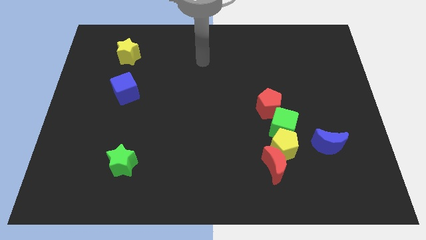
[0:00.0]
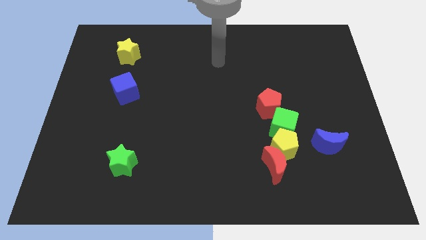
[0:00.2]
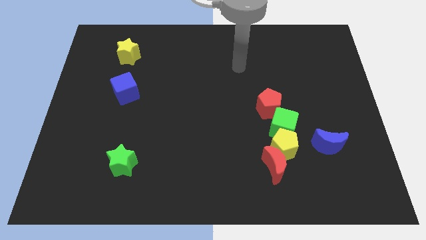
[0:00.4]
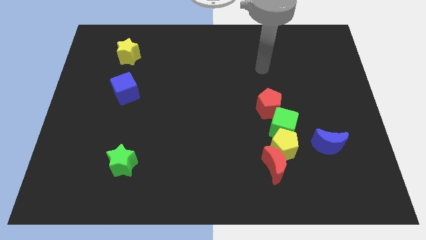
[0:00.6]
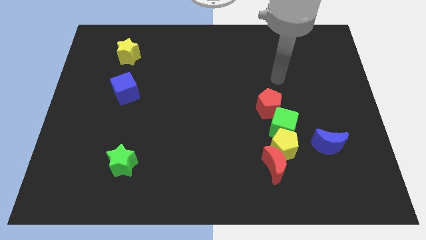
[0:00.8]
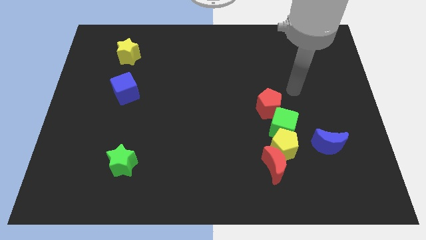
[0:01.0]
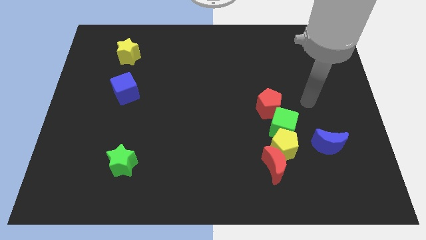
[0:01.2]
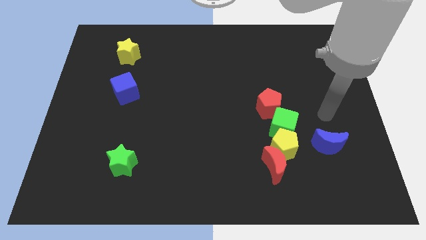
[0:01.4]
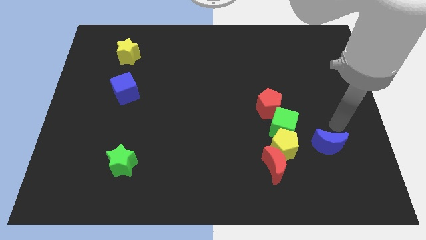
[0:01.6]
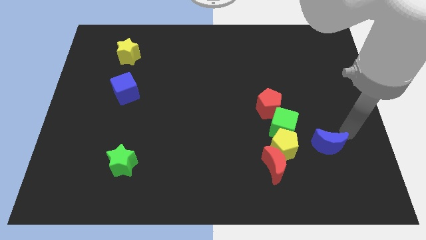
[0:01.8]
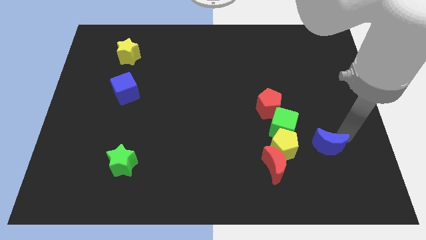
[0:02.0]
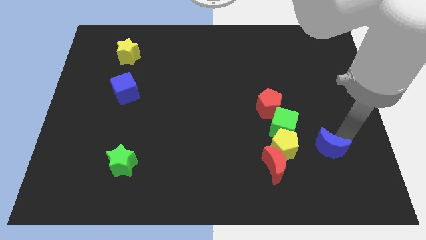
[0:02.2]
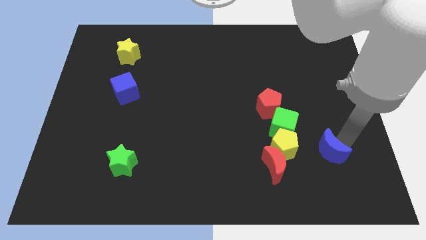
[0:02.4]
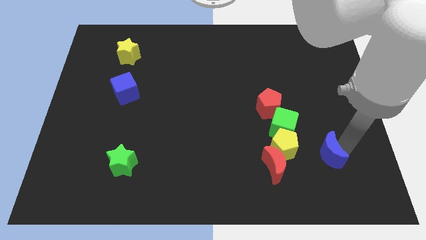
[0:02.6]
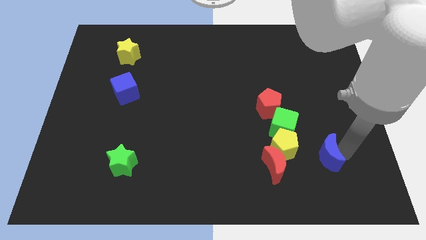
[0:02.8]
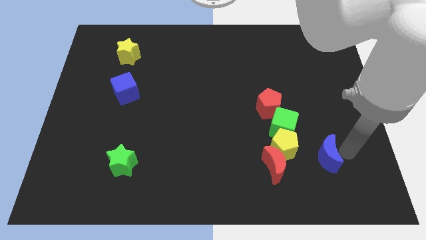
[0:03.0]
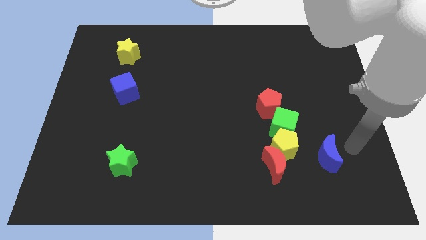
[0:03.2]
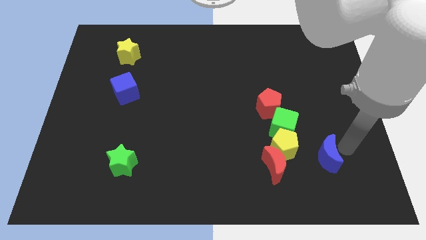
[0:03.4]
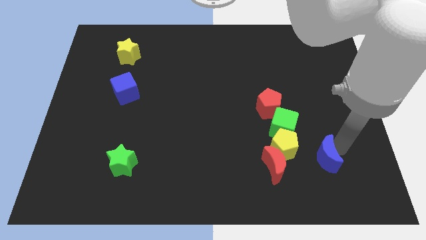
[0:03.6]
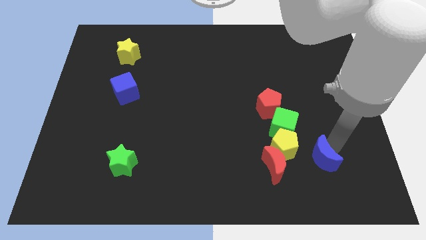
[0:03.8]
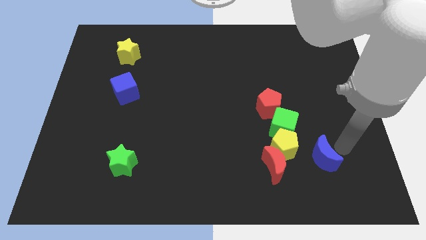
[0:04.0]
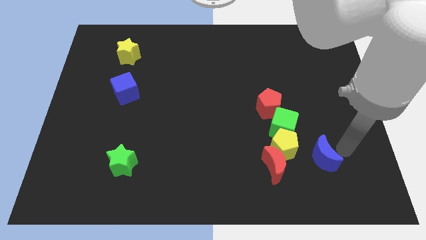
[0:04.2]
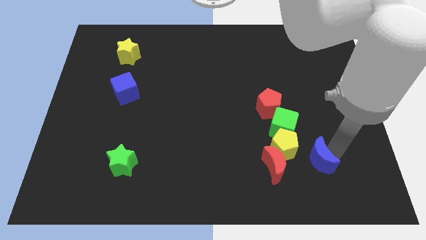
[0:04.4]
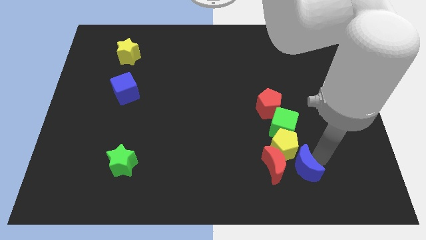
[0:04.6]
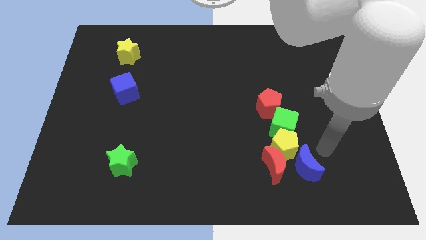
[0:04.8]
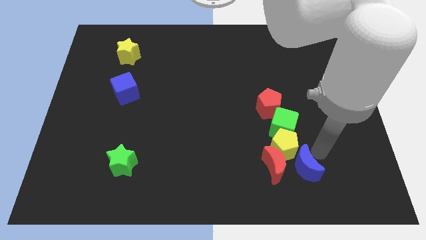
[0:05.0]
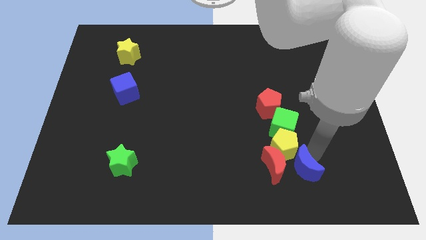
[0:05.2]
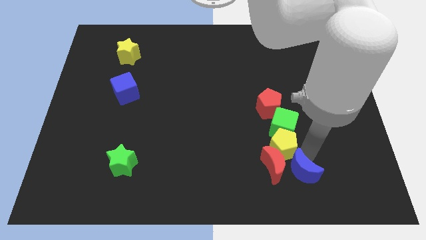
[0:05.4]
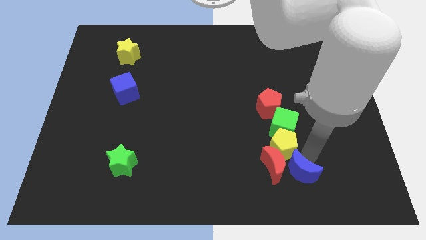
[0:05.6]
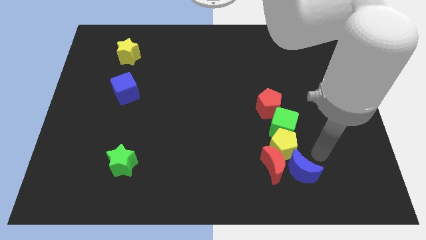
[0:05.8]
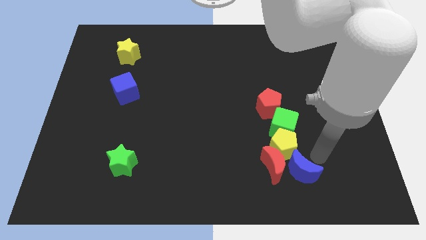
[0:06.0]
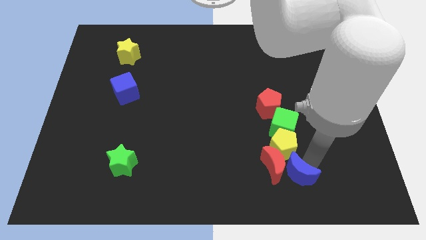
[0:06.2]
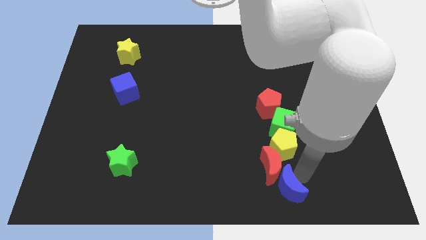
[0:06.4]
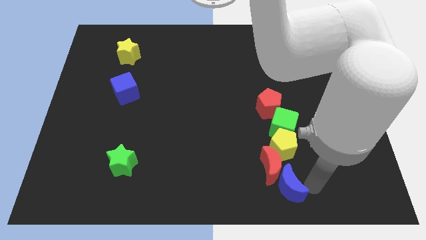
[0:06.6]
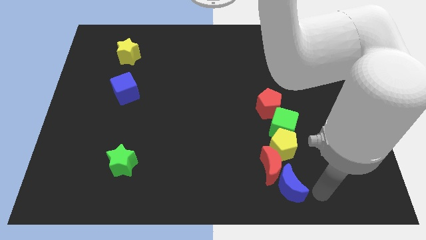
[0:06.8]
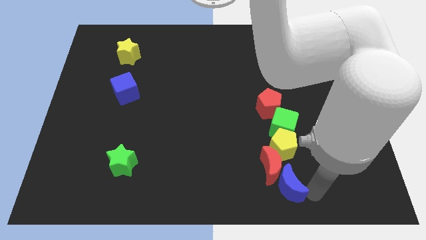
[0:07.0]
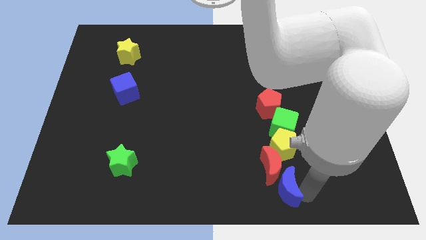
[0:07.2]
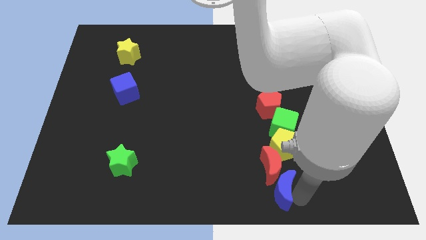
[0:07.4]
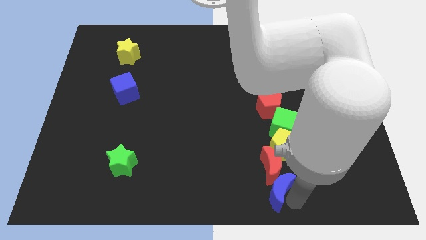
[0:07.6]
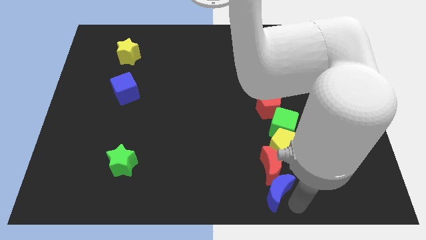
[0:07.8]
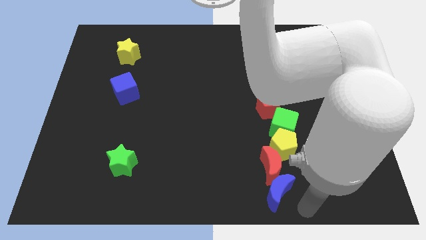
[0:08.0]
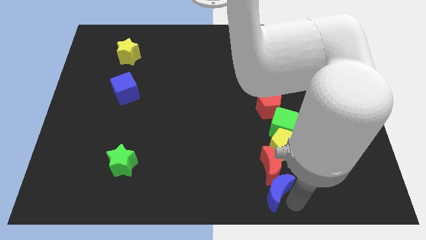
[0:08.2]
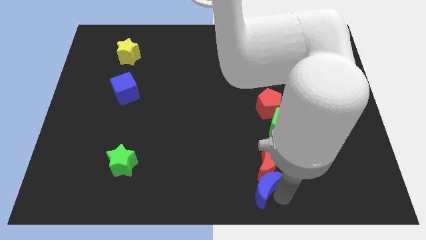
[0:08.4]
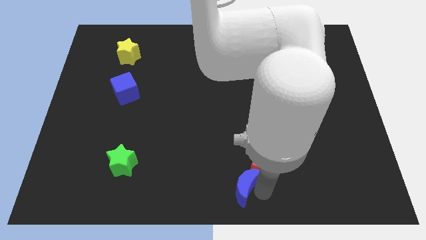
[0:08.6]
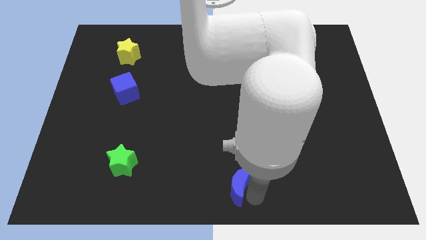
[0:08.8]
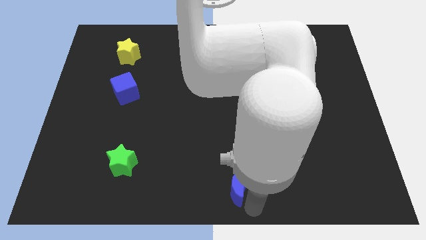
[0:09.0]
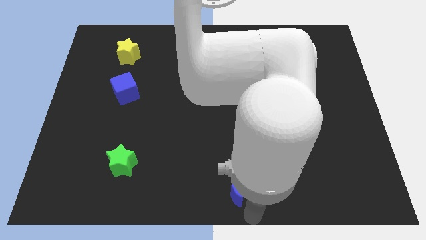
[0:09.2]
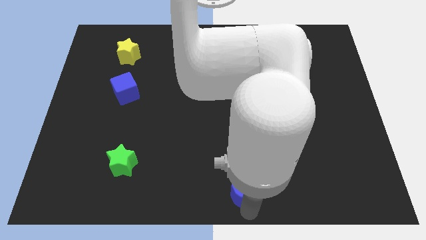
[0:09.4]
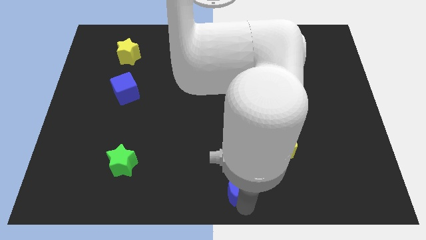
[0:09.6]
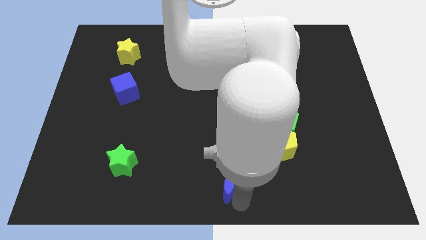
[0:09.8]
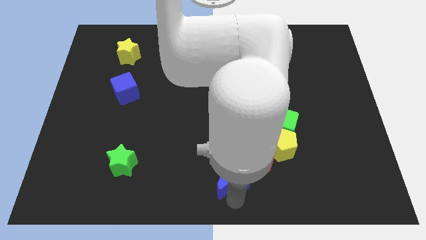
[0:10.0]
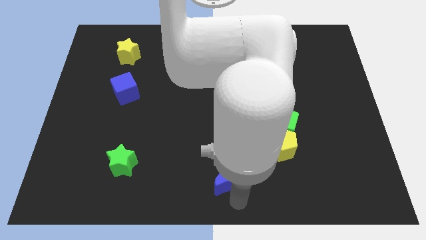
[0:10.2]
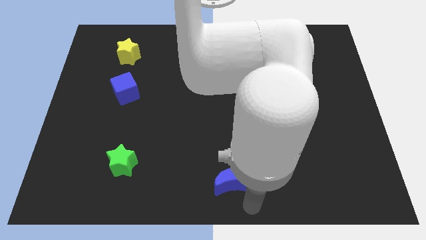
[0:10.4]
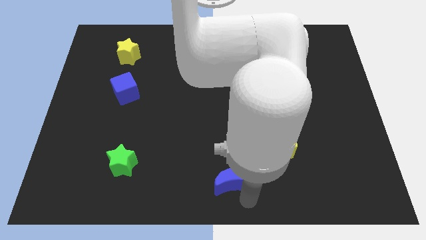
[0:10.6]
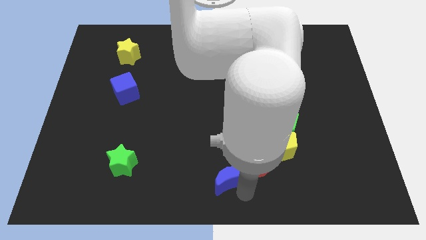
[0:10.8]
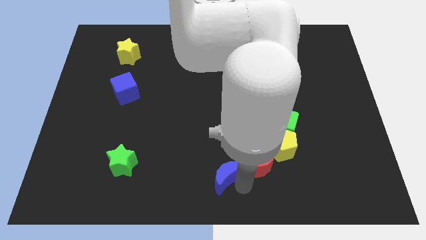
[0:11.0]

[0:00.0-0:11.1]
slide the blue moon left

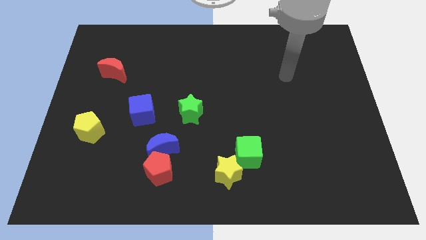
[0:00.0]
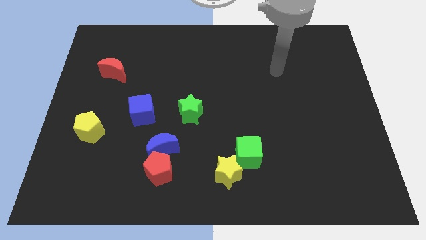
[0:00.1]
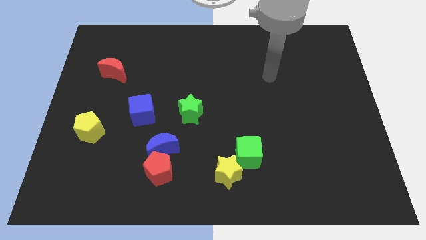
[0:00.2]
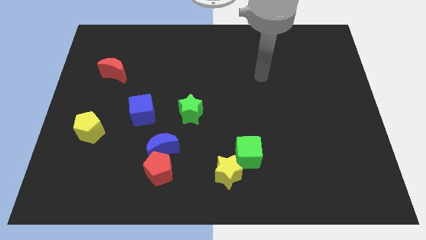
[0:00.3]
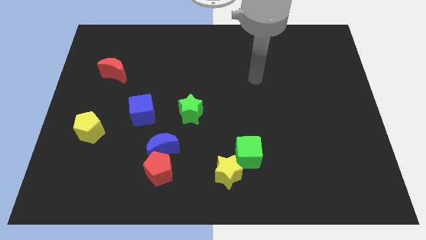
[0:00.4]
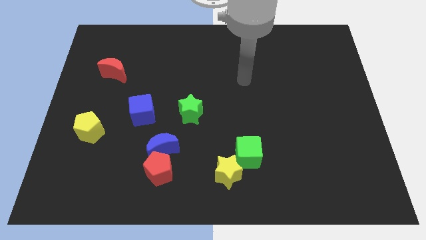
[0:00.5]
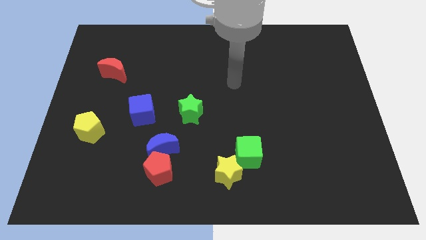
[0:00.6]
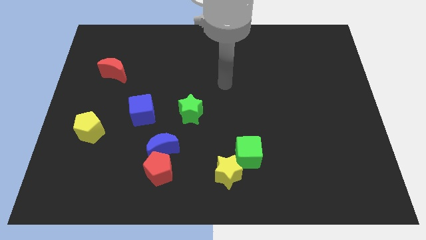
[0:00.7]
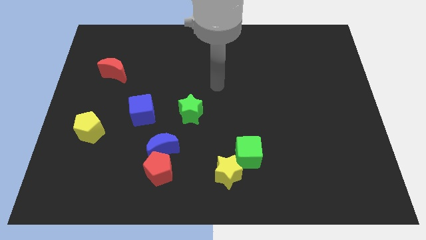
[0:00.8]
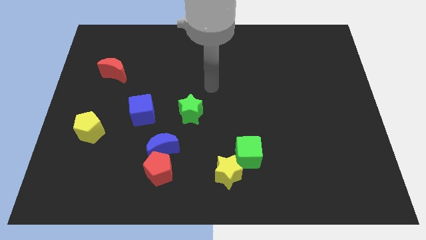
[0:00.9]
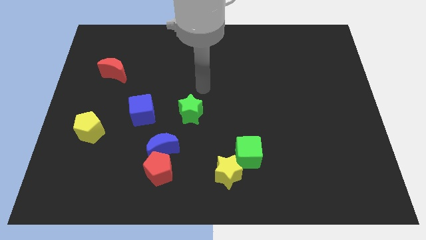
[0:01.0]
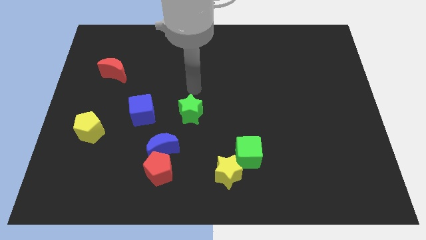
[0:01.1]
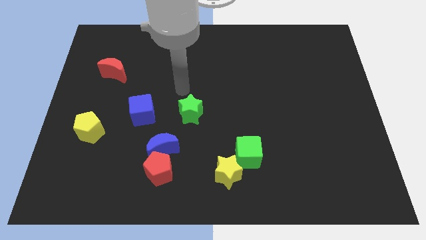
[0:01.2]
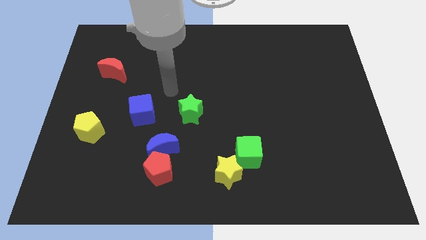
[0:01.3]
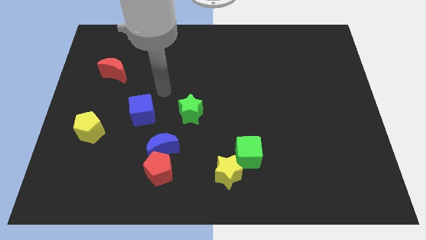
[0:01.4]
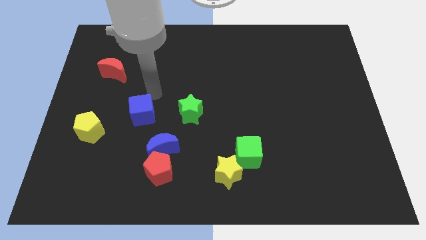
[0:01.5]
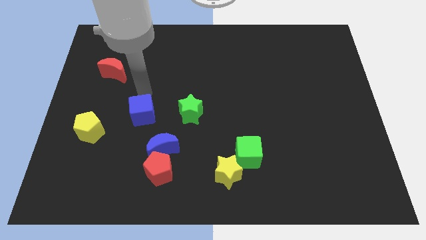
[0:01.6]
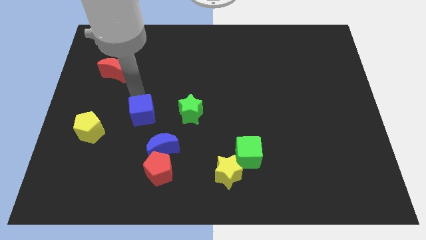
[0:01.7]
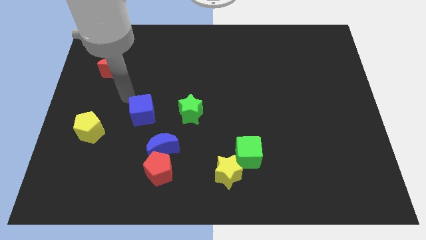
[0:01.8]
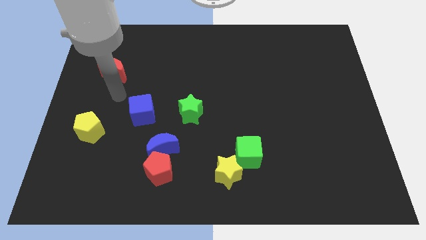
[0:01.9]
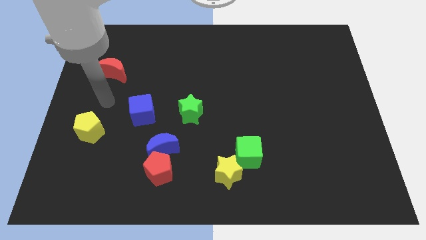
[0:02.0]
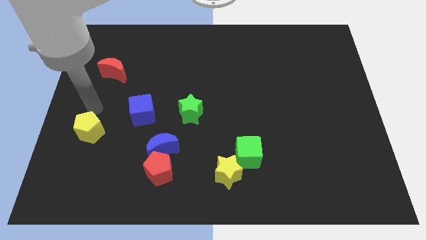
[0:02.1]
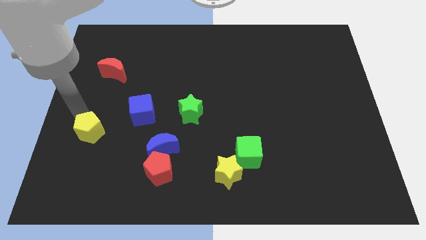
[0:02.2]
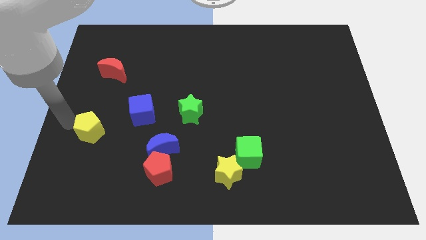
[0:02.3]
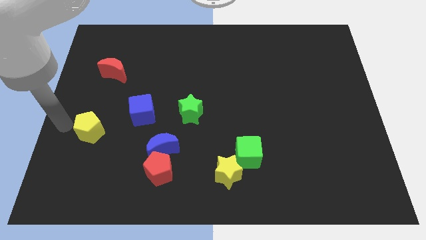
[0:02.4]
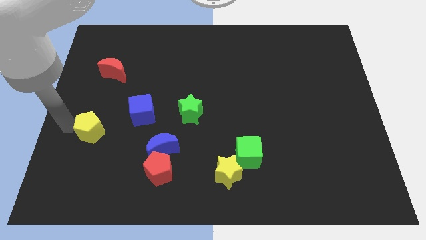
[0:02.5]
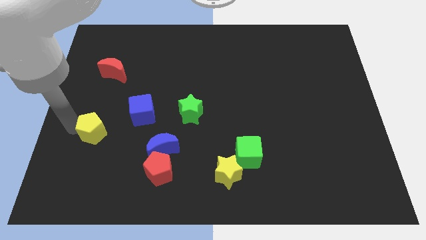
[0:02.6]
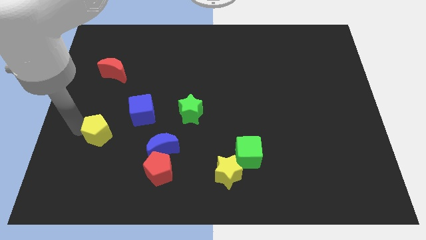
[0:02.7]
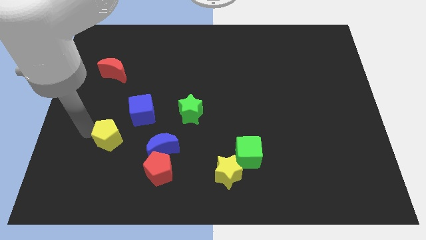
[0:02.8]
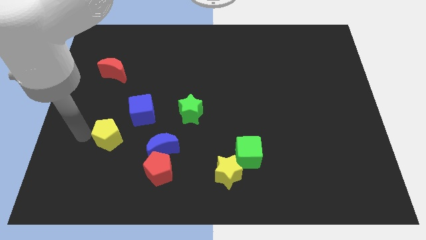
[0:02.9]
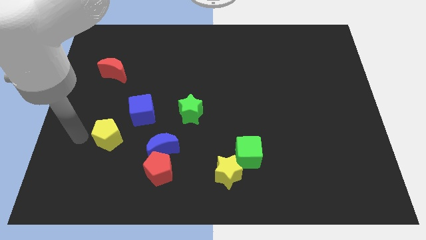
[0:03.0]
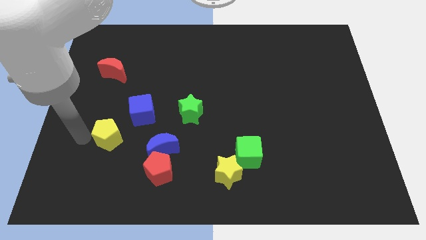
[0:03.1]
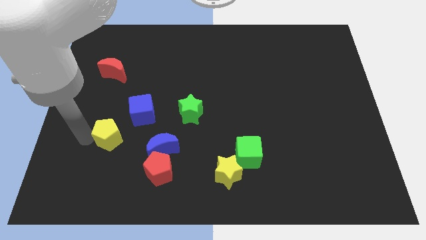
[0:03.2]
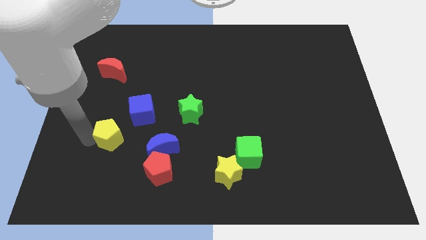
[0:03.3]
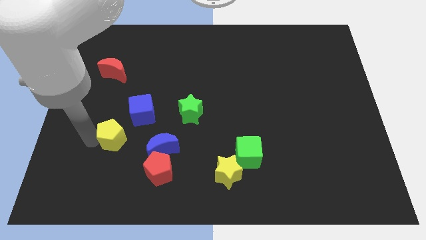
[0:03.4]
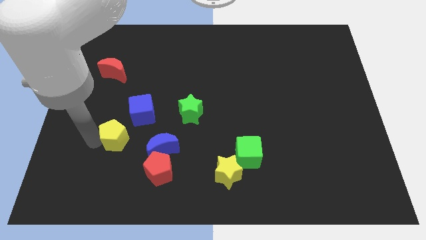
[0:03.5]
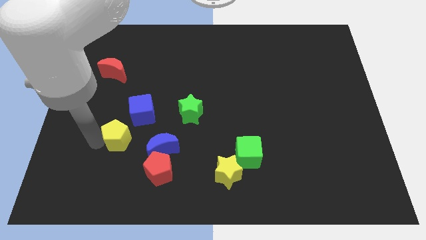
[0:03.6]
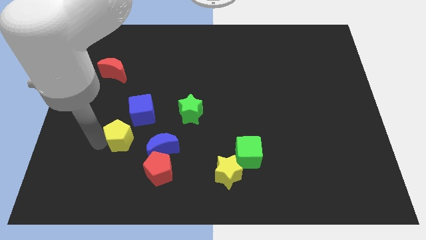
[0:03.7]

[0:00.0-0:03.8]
slightly slide the yellow pentagon to the right
